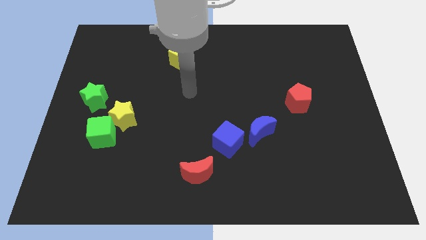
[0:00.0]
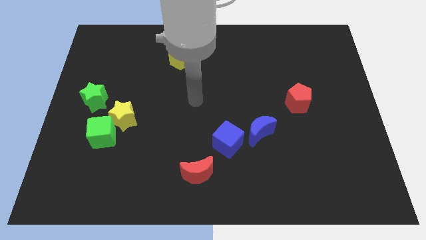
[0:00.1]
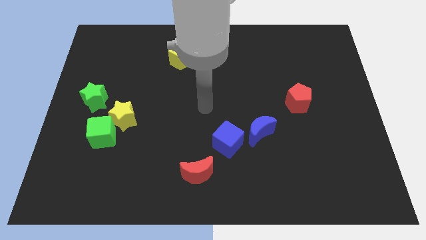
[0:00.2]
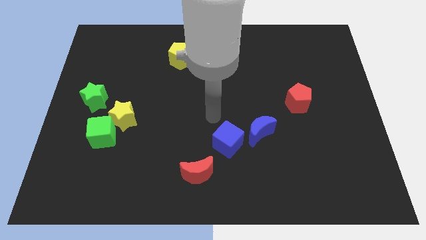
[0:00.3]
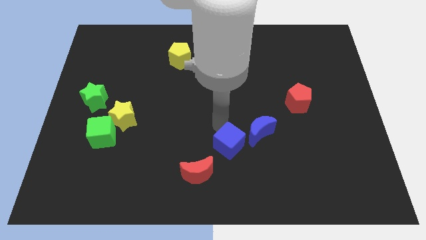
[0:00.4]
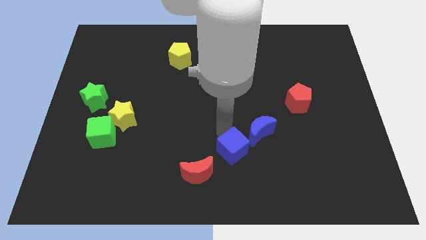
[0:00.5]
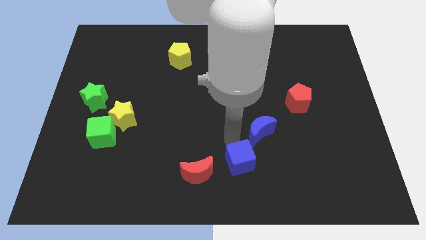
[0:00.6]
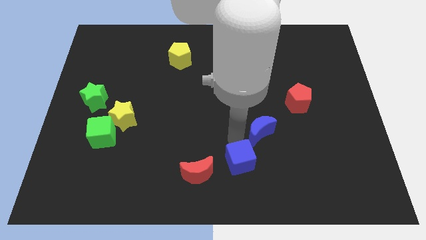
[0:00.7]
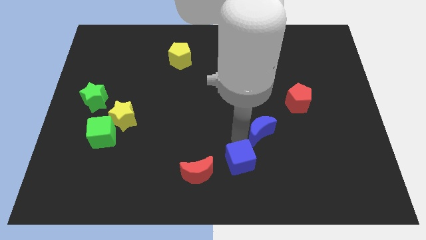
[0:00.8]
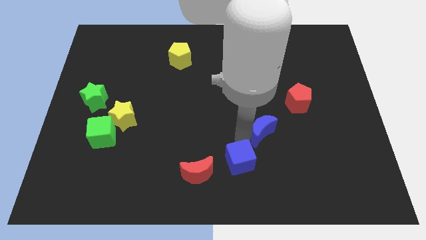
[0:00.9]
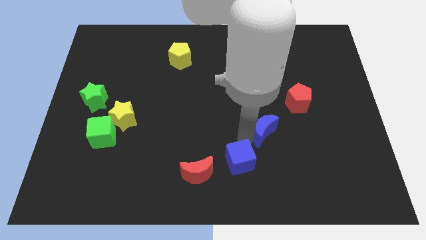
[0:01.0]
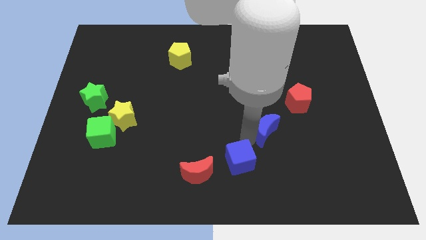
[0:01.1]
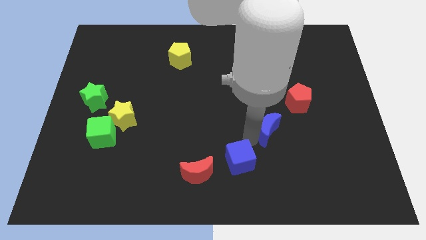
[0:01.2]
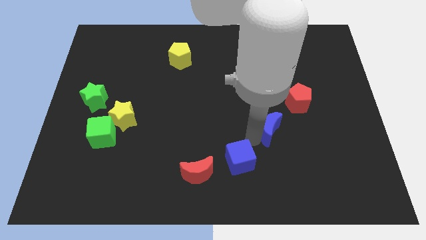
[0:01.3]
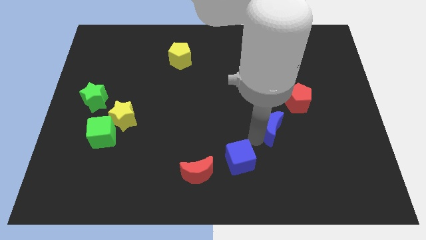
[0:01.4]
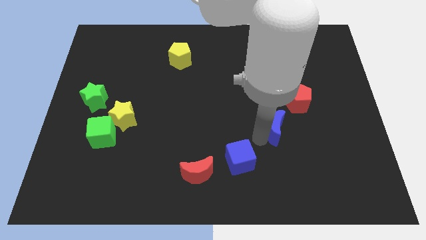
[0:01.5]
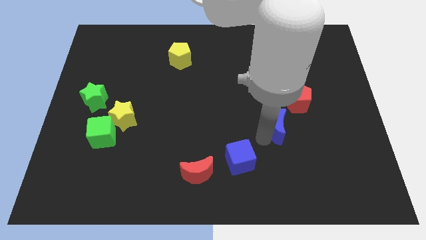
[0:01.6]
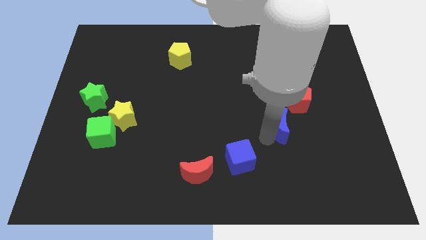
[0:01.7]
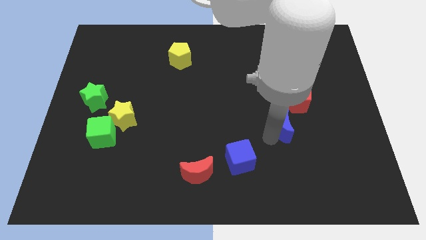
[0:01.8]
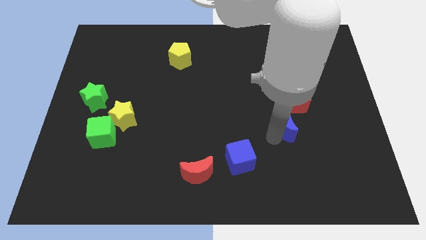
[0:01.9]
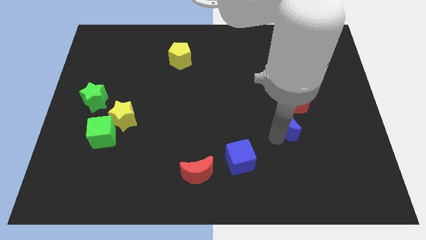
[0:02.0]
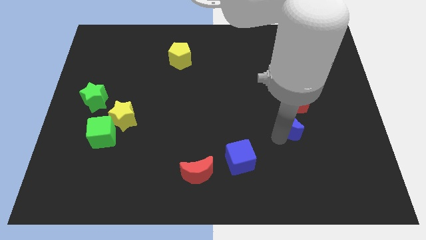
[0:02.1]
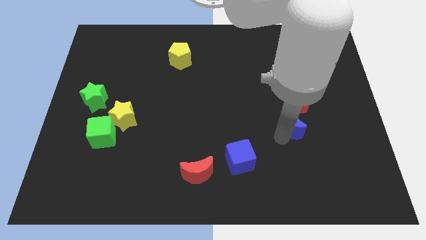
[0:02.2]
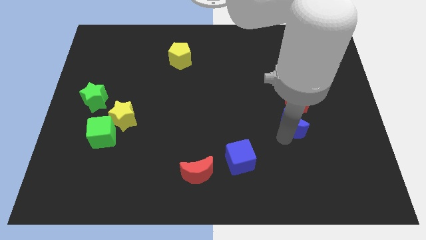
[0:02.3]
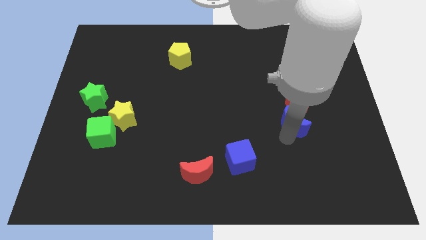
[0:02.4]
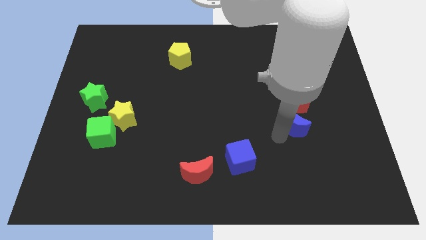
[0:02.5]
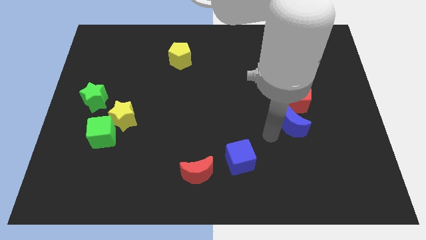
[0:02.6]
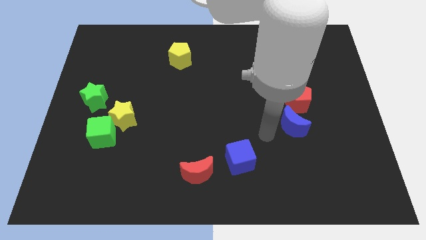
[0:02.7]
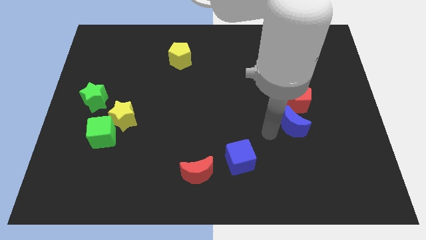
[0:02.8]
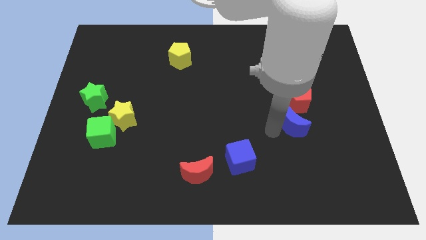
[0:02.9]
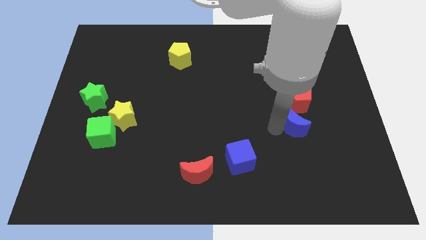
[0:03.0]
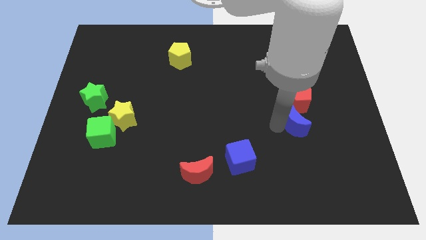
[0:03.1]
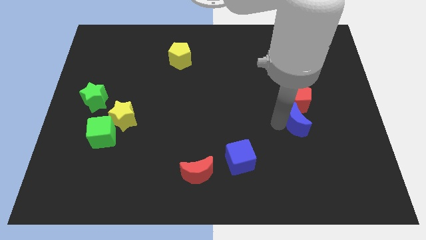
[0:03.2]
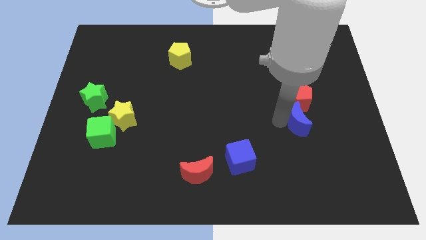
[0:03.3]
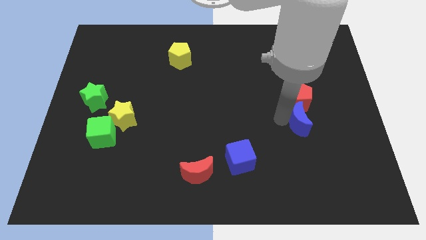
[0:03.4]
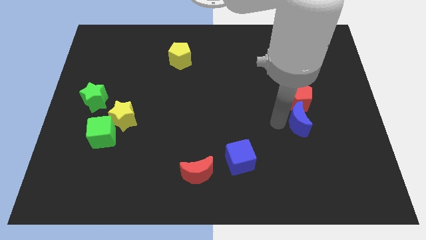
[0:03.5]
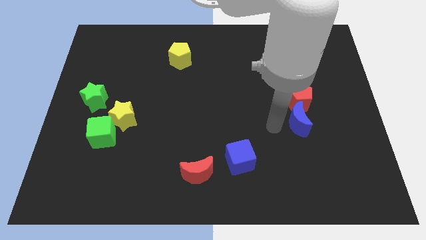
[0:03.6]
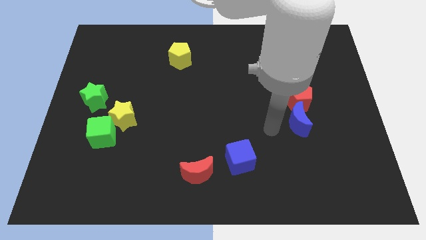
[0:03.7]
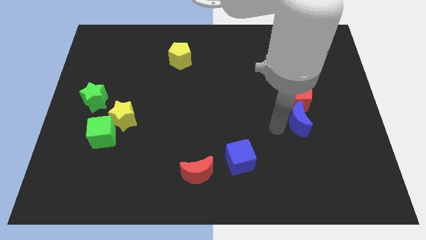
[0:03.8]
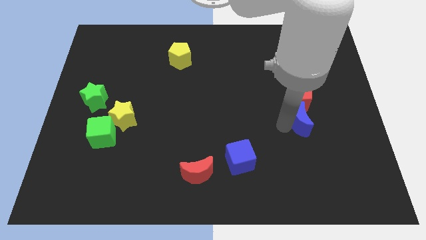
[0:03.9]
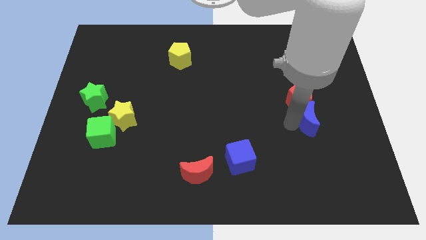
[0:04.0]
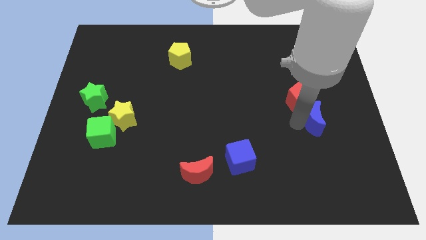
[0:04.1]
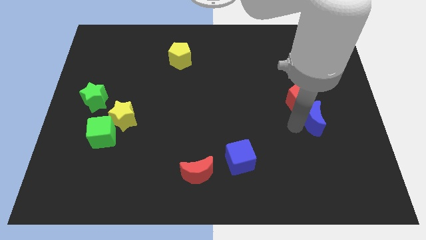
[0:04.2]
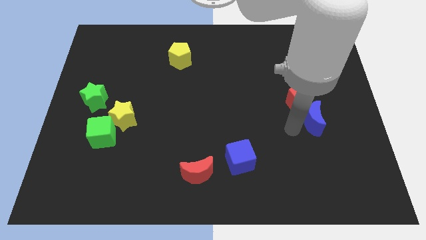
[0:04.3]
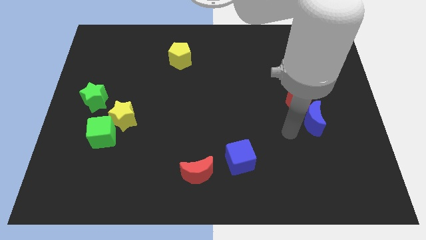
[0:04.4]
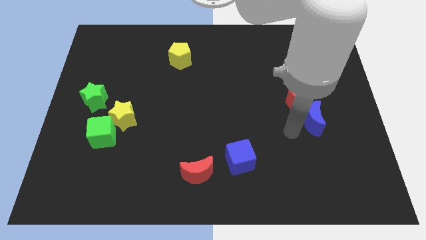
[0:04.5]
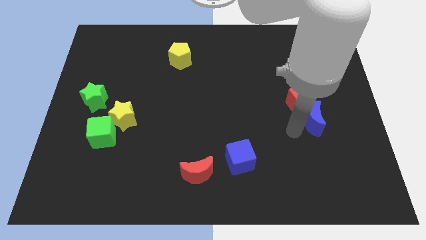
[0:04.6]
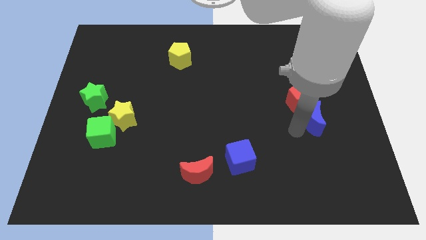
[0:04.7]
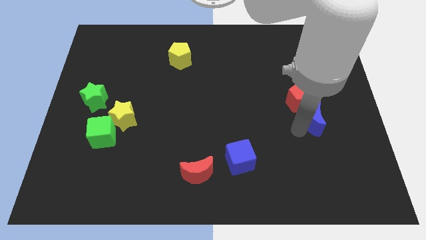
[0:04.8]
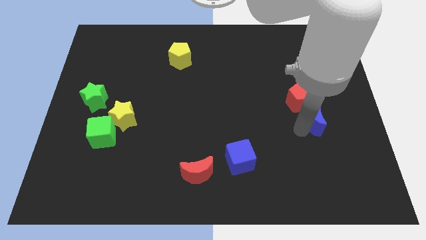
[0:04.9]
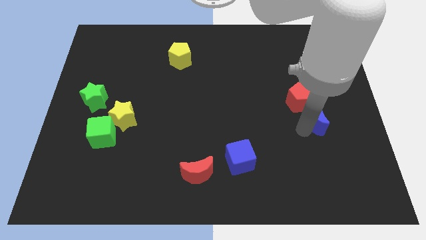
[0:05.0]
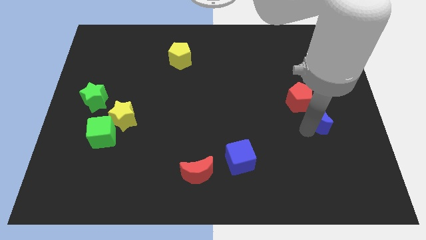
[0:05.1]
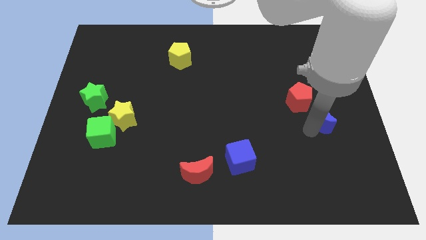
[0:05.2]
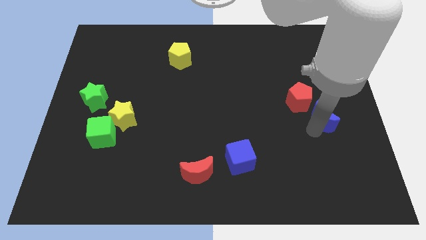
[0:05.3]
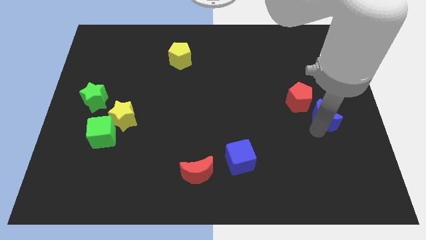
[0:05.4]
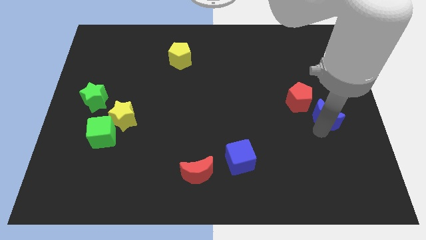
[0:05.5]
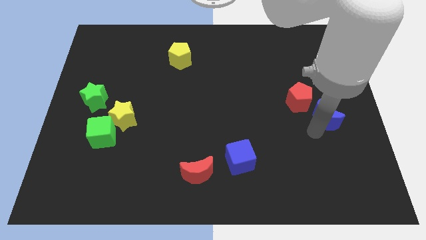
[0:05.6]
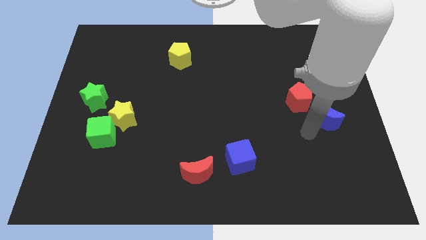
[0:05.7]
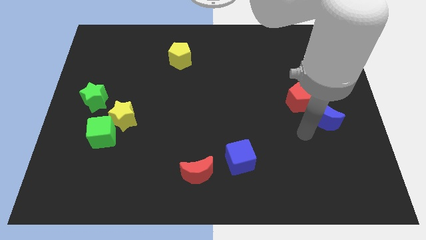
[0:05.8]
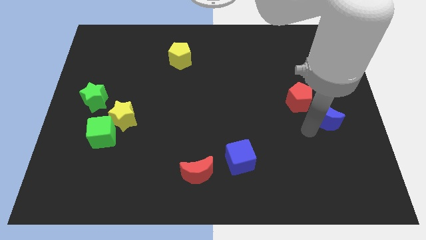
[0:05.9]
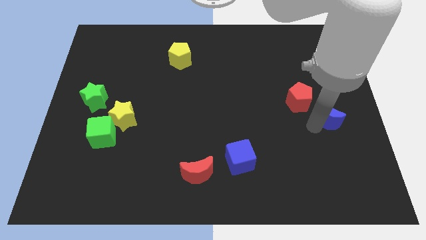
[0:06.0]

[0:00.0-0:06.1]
put the blue moon to the right side of the board
